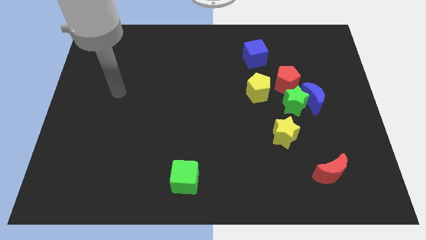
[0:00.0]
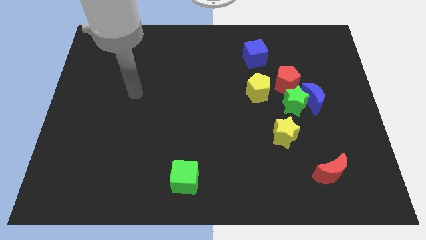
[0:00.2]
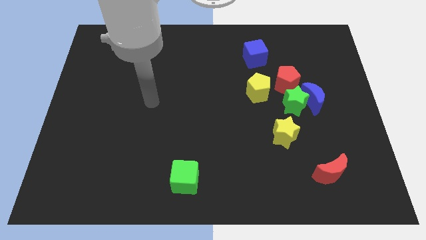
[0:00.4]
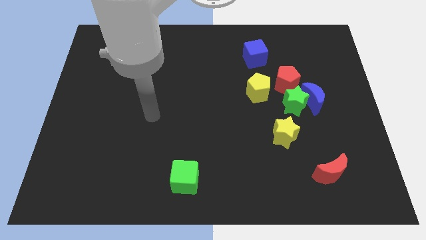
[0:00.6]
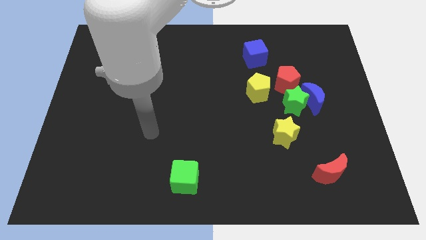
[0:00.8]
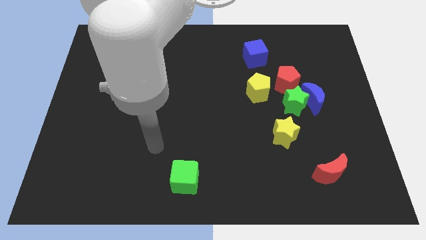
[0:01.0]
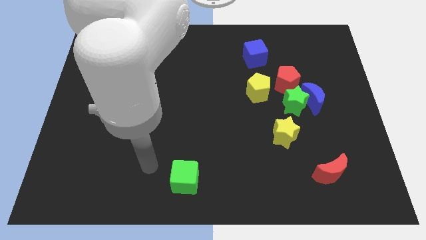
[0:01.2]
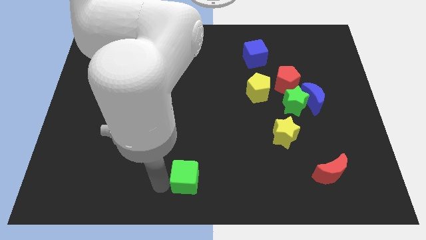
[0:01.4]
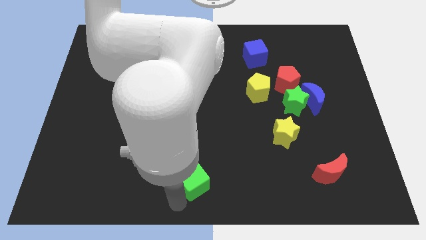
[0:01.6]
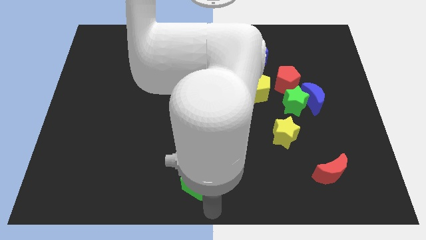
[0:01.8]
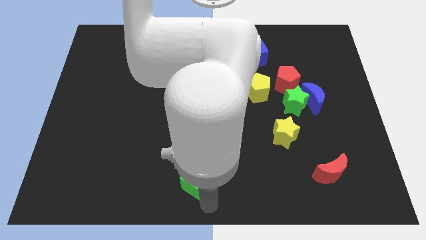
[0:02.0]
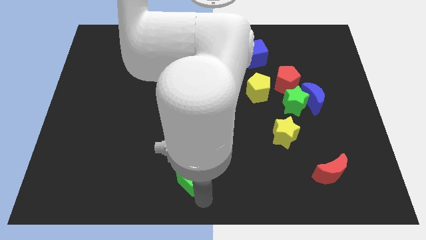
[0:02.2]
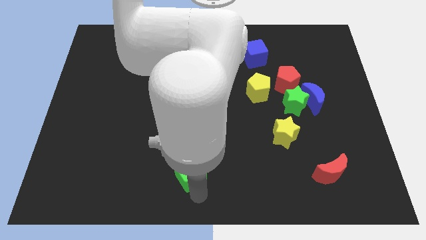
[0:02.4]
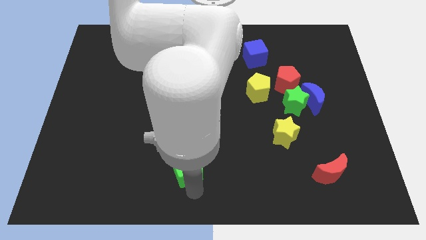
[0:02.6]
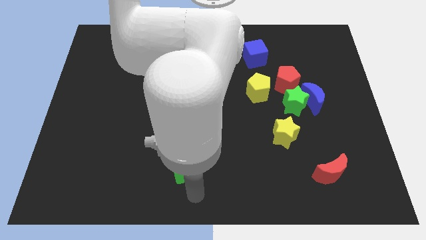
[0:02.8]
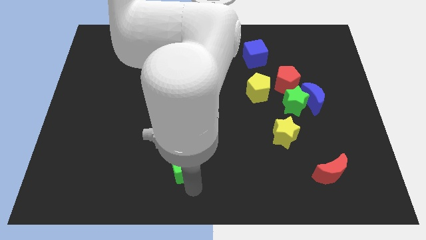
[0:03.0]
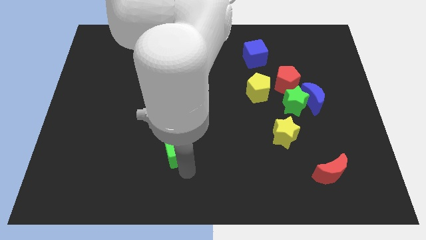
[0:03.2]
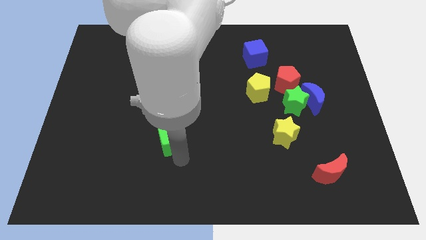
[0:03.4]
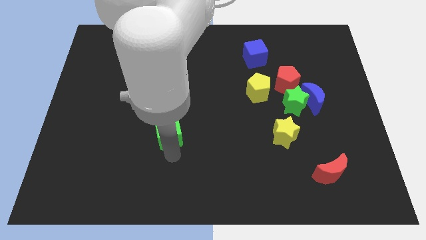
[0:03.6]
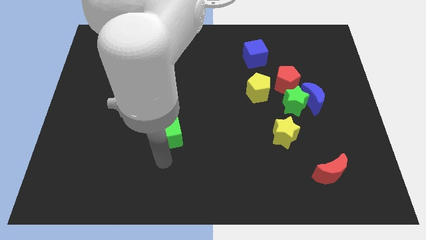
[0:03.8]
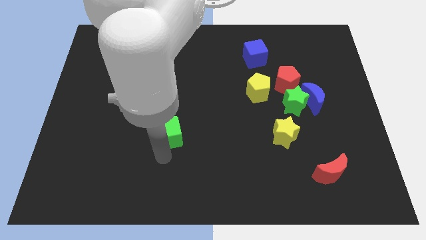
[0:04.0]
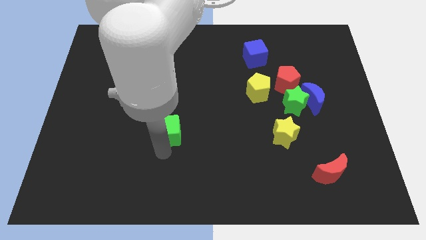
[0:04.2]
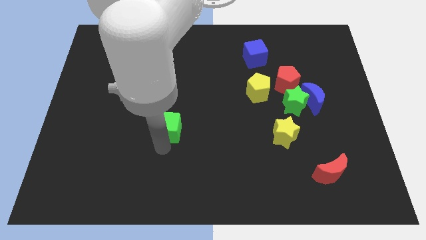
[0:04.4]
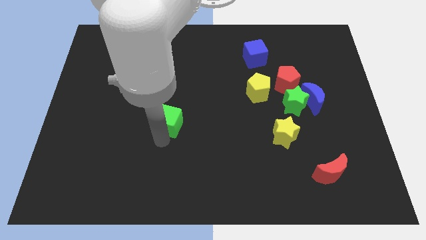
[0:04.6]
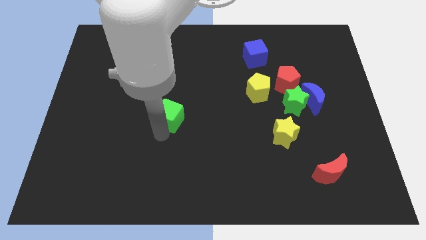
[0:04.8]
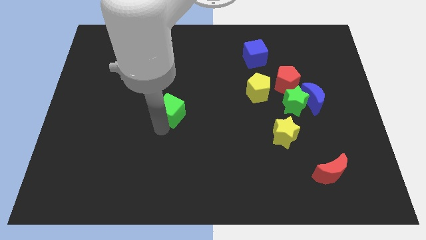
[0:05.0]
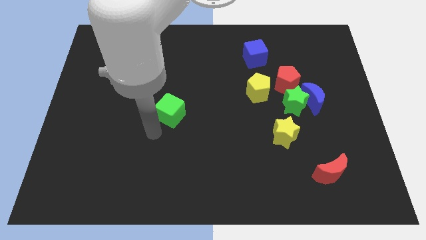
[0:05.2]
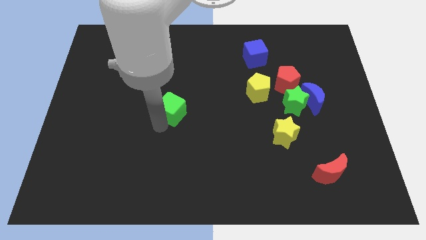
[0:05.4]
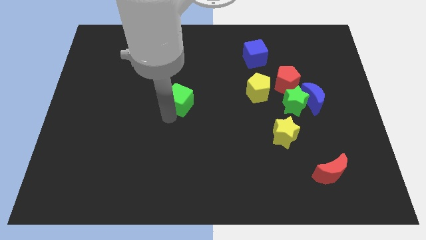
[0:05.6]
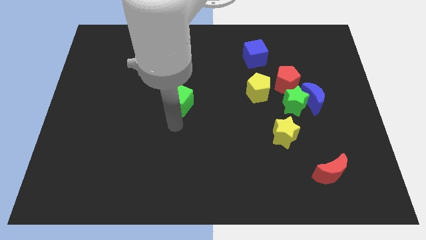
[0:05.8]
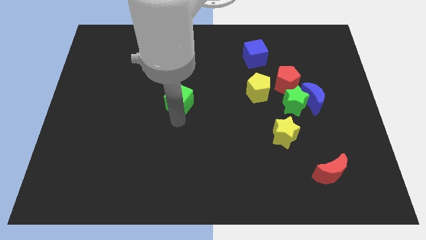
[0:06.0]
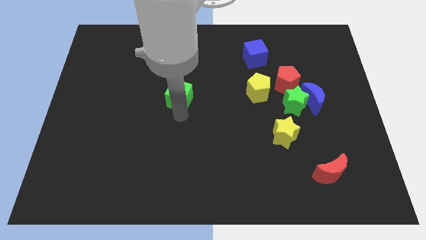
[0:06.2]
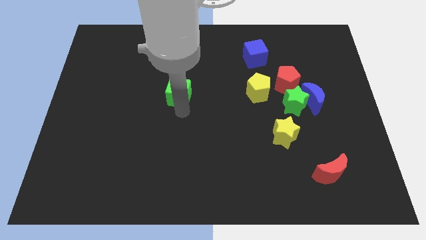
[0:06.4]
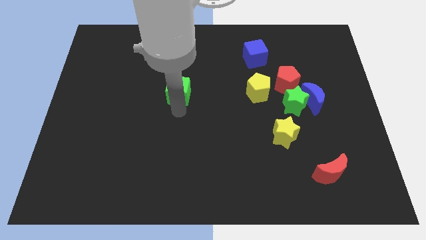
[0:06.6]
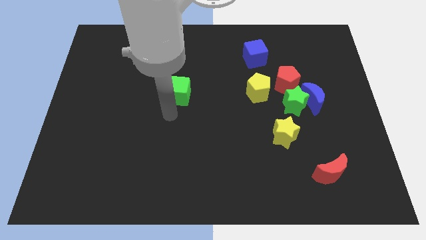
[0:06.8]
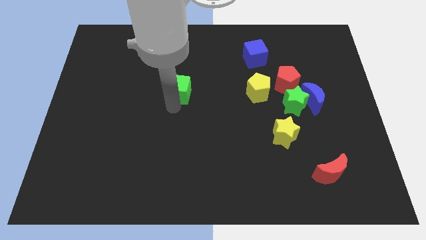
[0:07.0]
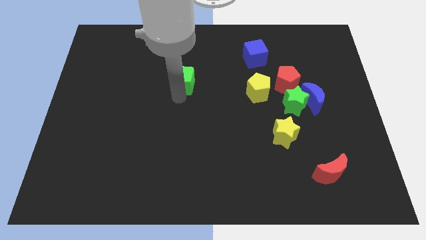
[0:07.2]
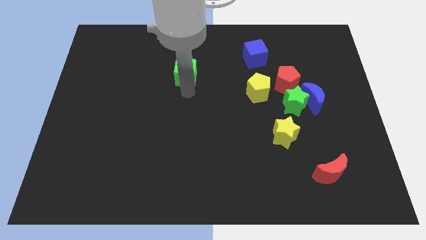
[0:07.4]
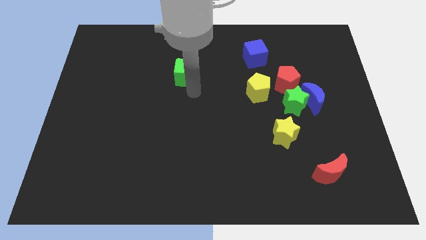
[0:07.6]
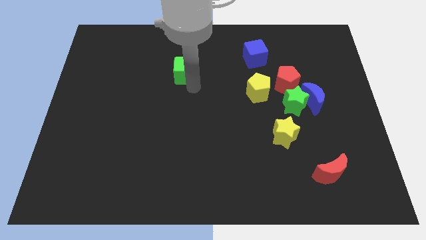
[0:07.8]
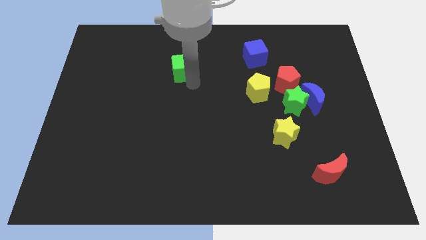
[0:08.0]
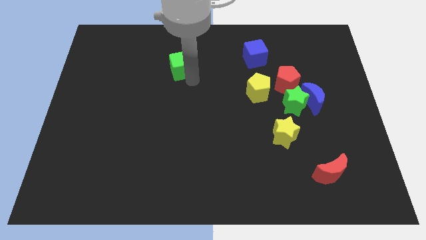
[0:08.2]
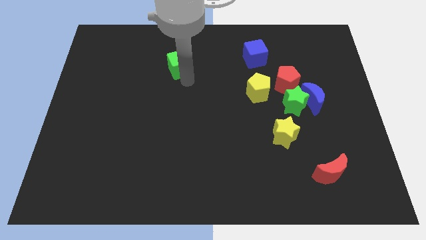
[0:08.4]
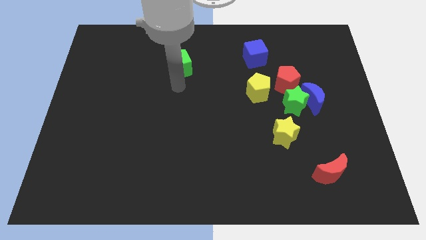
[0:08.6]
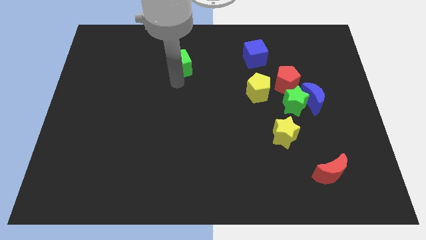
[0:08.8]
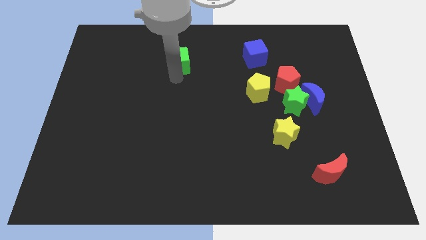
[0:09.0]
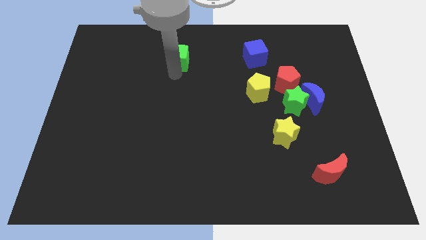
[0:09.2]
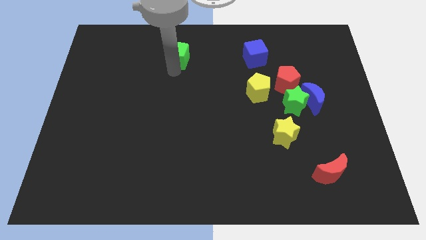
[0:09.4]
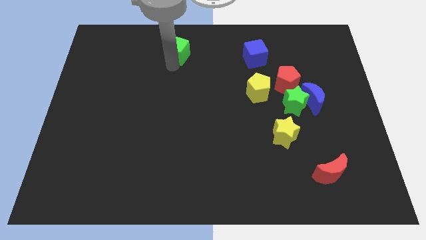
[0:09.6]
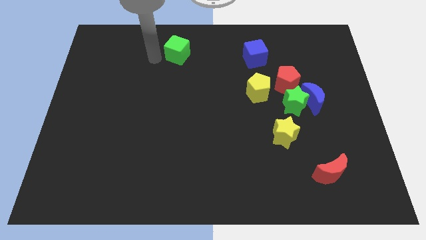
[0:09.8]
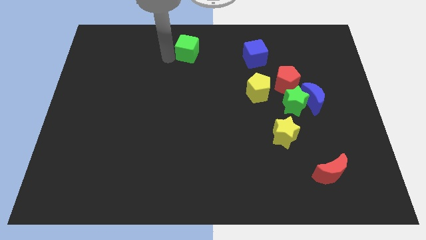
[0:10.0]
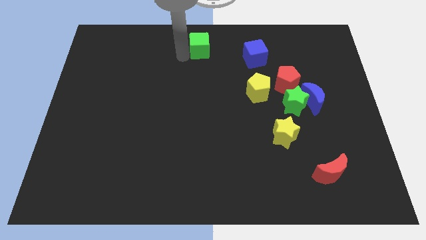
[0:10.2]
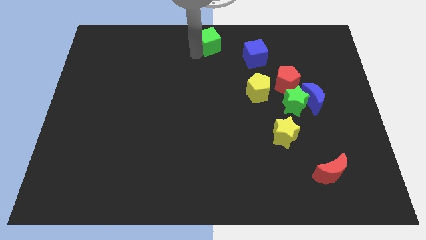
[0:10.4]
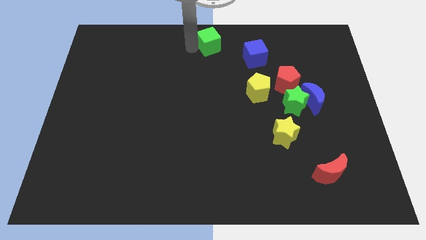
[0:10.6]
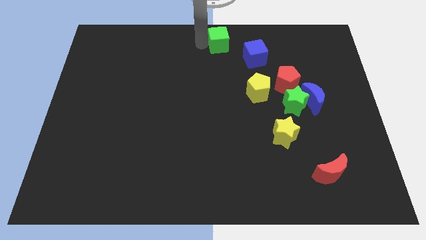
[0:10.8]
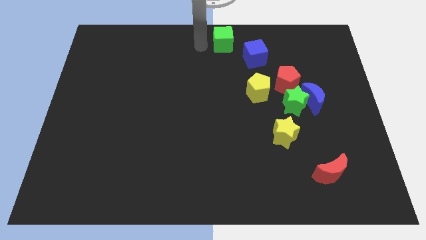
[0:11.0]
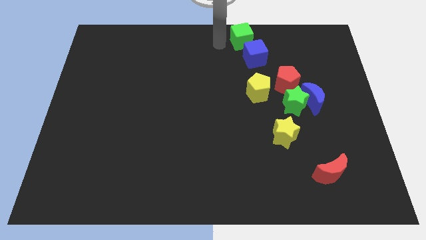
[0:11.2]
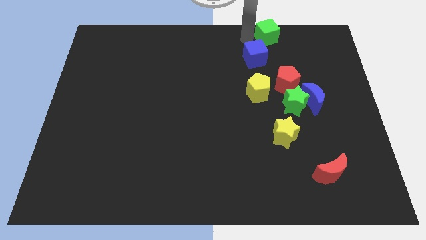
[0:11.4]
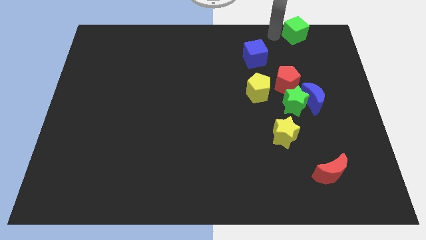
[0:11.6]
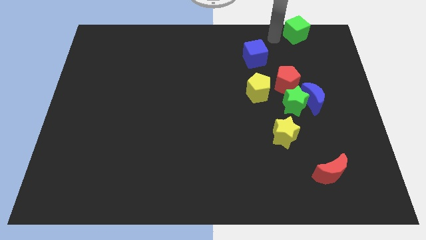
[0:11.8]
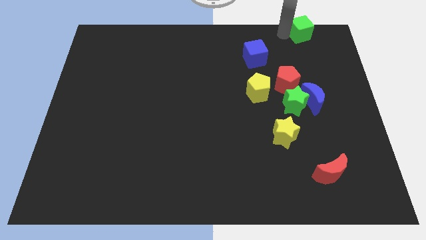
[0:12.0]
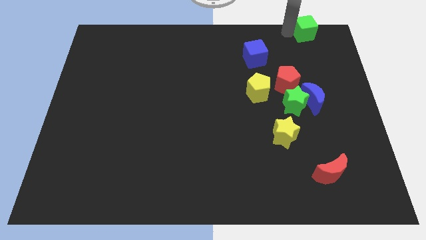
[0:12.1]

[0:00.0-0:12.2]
push the green cube to the top right of the board
